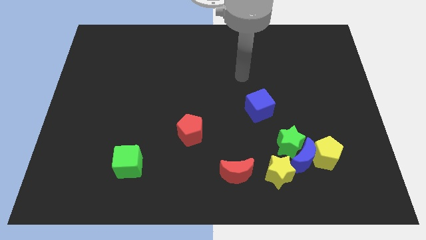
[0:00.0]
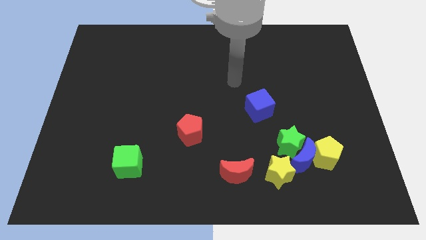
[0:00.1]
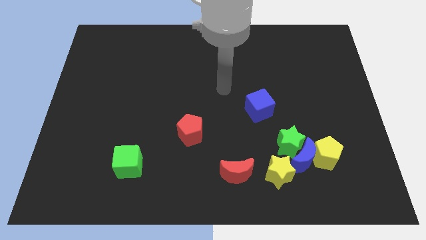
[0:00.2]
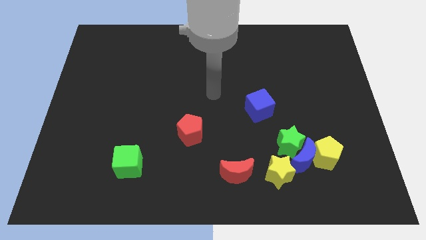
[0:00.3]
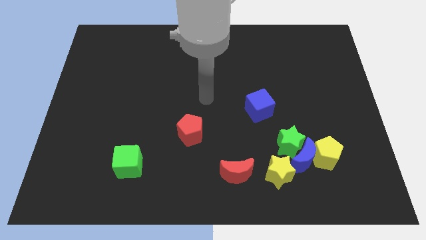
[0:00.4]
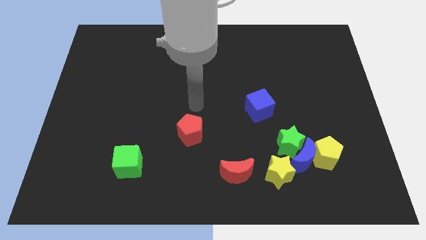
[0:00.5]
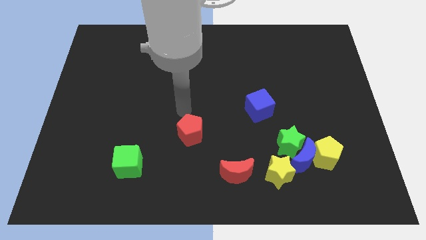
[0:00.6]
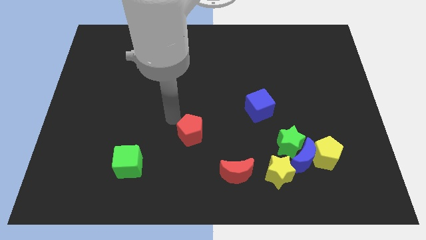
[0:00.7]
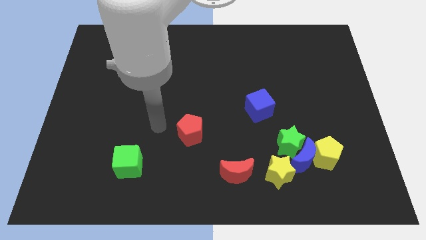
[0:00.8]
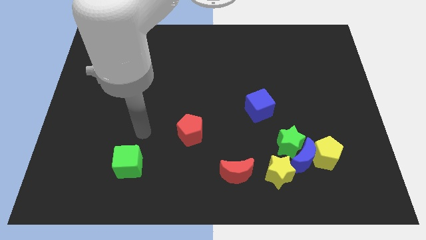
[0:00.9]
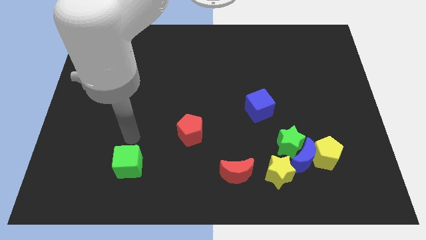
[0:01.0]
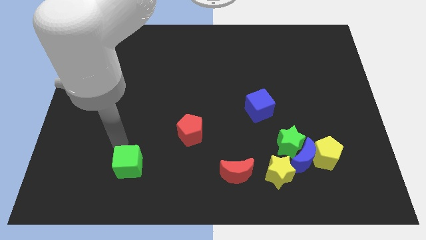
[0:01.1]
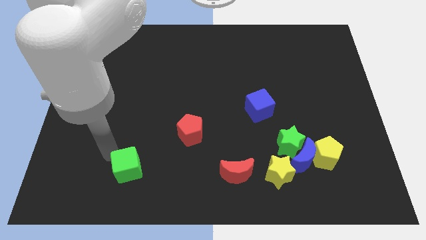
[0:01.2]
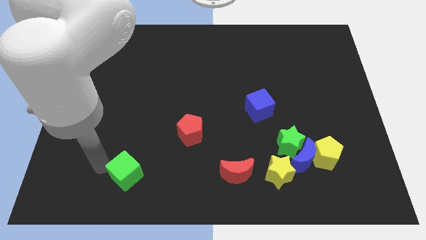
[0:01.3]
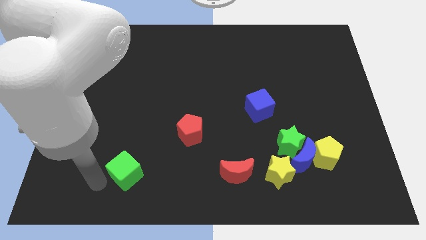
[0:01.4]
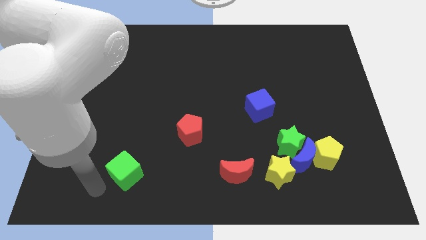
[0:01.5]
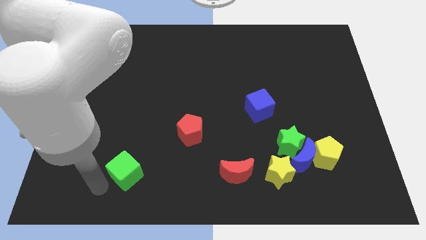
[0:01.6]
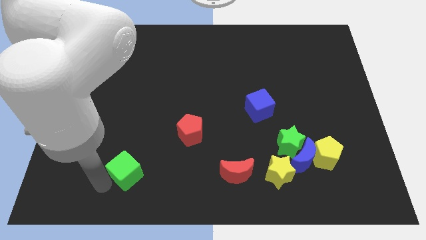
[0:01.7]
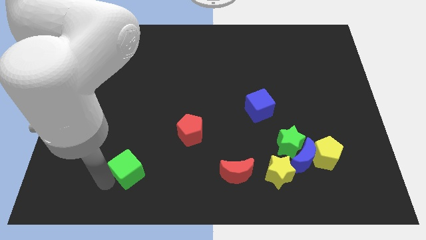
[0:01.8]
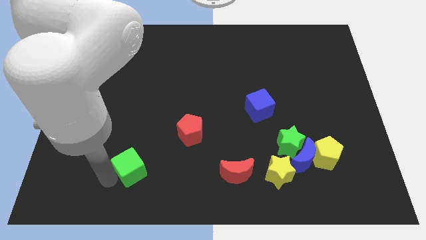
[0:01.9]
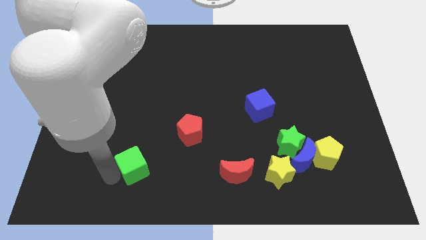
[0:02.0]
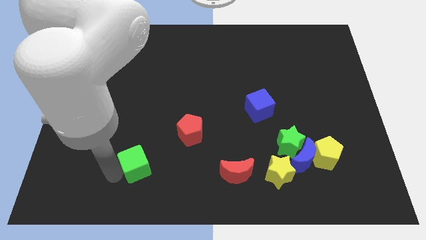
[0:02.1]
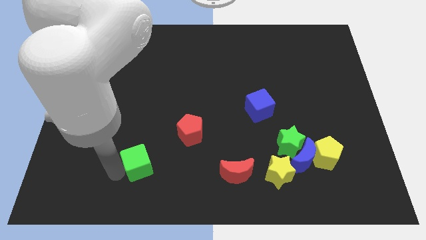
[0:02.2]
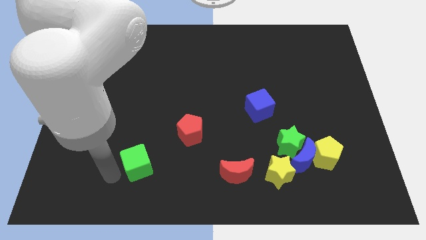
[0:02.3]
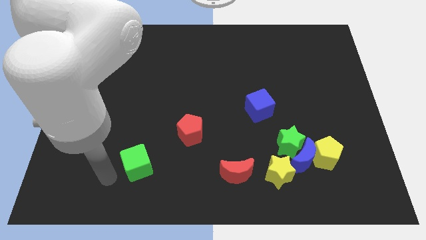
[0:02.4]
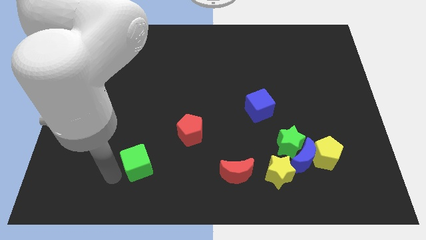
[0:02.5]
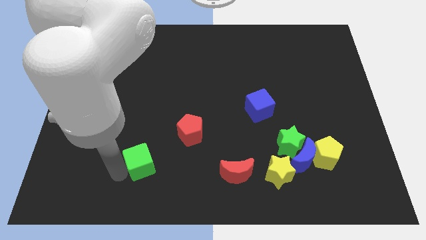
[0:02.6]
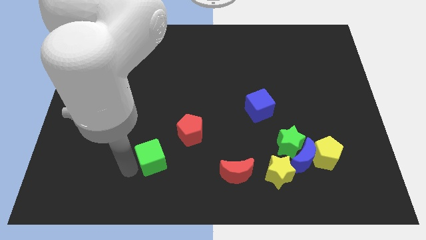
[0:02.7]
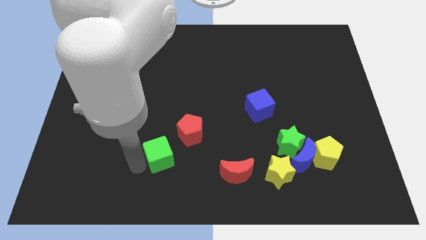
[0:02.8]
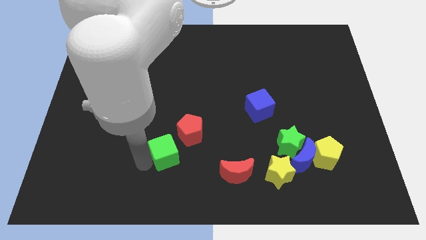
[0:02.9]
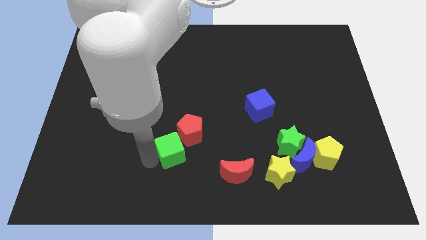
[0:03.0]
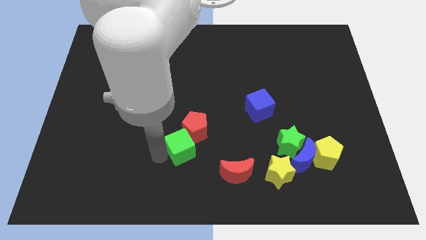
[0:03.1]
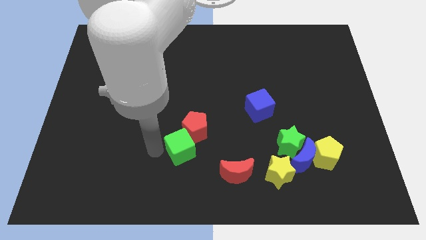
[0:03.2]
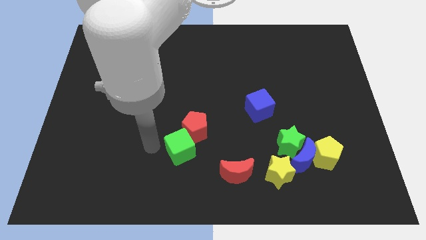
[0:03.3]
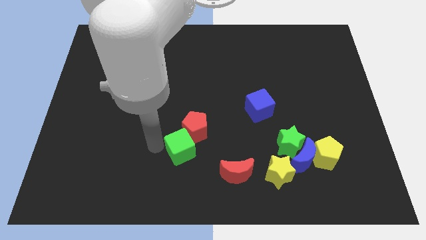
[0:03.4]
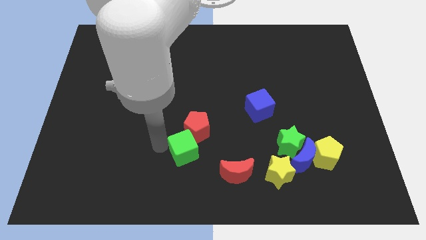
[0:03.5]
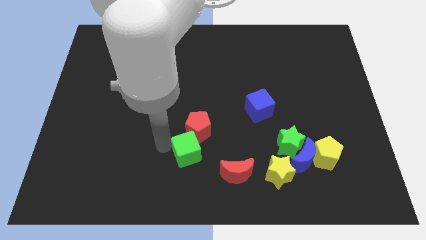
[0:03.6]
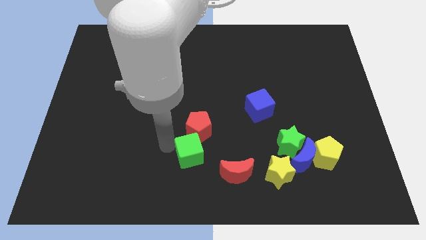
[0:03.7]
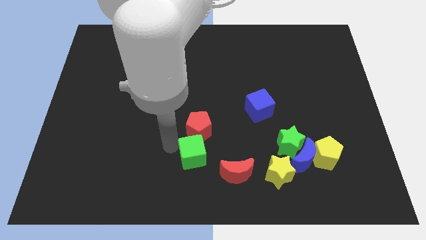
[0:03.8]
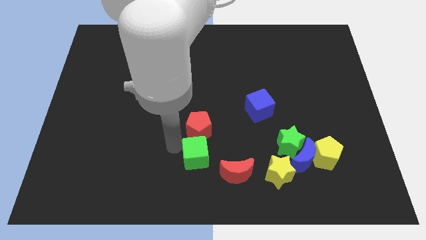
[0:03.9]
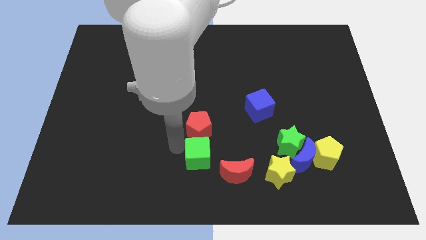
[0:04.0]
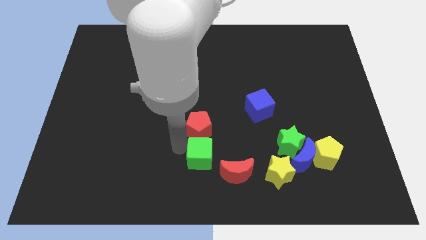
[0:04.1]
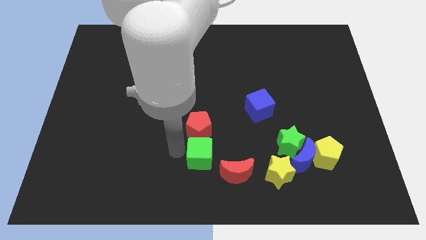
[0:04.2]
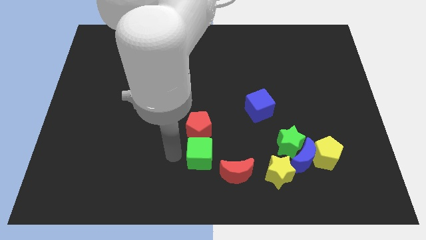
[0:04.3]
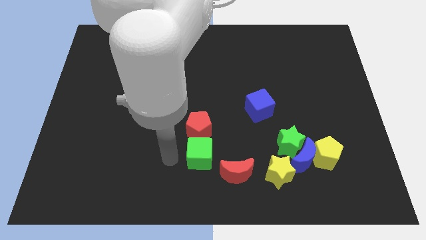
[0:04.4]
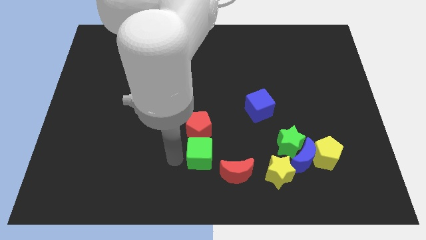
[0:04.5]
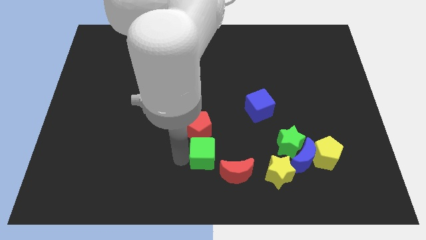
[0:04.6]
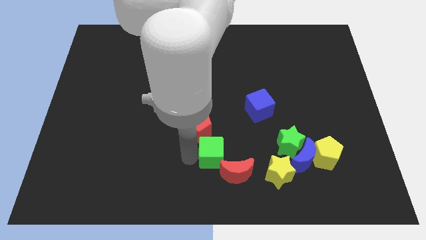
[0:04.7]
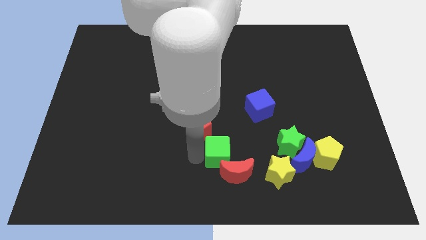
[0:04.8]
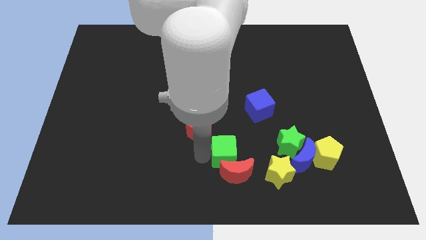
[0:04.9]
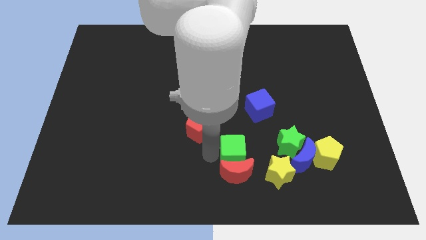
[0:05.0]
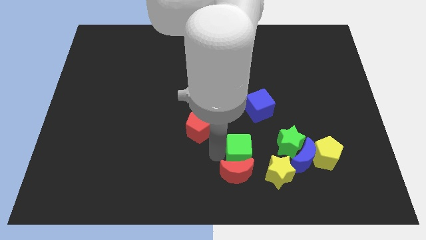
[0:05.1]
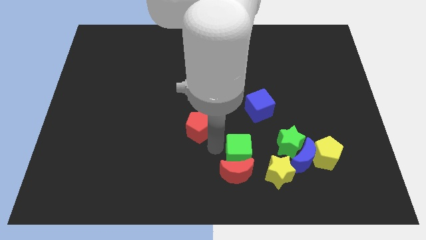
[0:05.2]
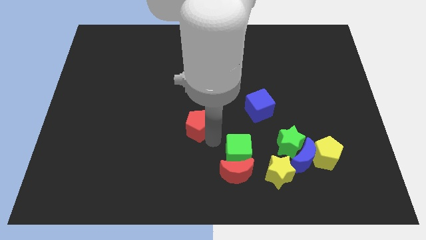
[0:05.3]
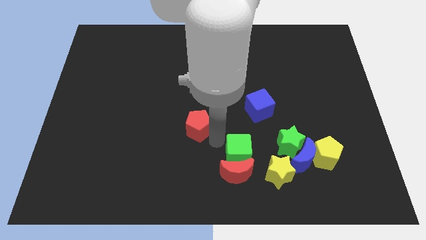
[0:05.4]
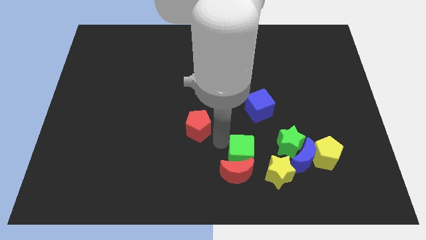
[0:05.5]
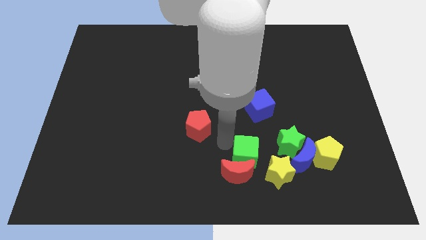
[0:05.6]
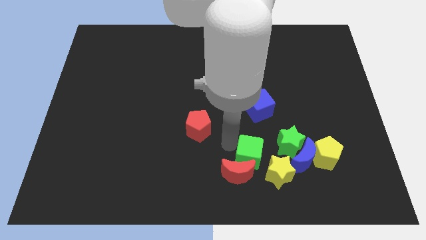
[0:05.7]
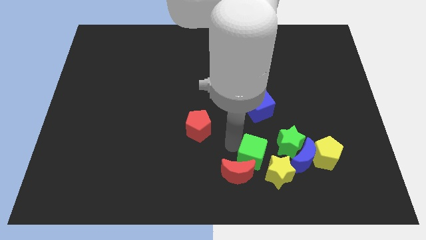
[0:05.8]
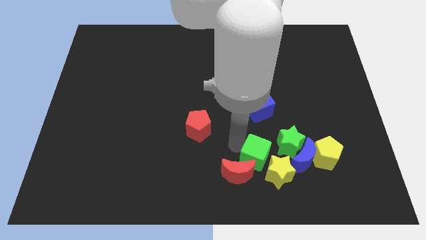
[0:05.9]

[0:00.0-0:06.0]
slide the green cube to the yellow star

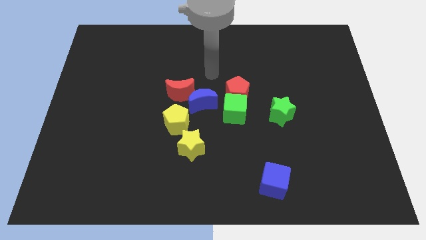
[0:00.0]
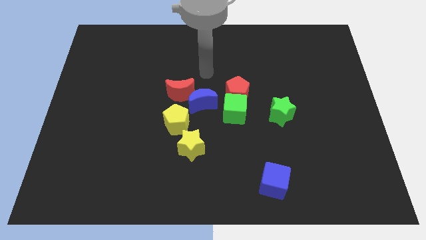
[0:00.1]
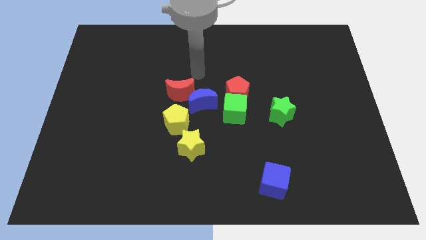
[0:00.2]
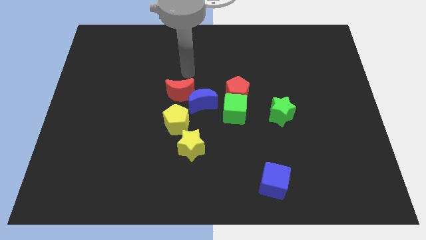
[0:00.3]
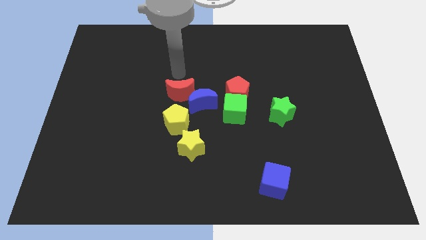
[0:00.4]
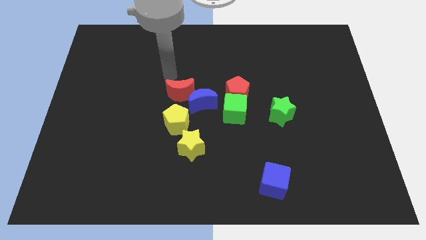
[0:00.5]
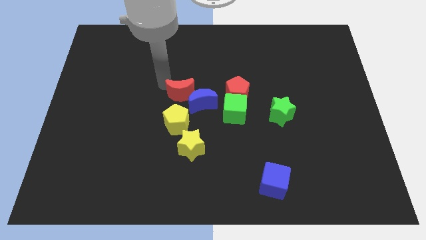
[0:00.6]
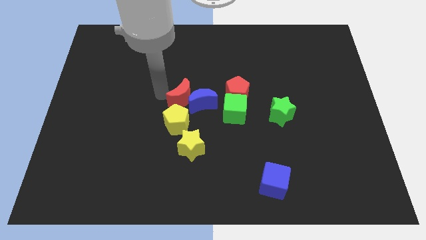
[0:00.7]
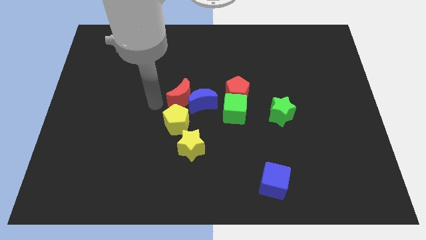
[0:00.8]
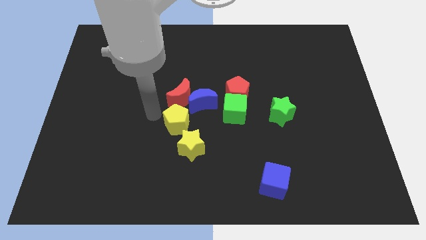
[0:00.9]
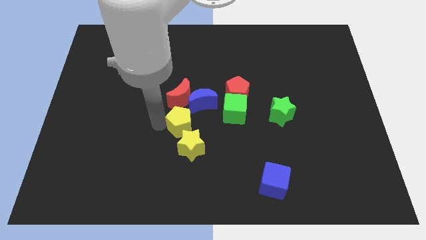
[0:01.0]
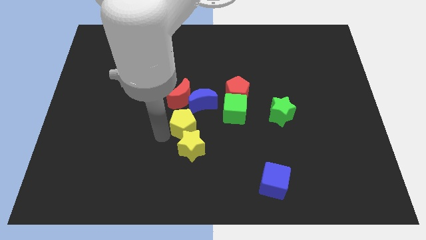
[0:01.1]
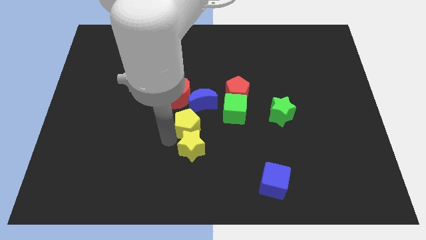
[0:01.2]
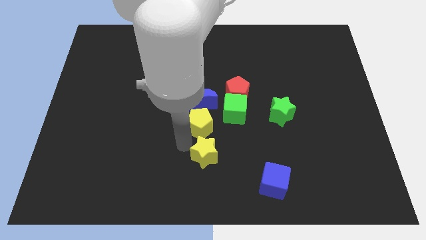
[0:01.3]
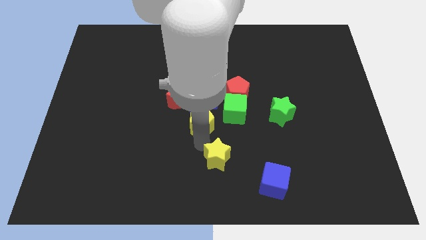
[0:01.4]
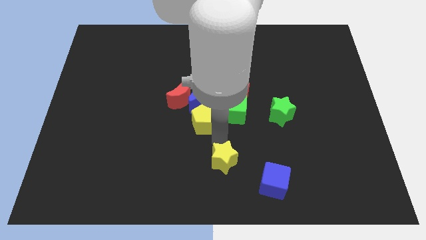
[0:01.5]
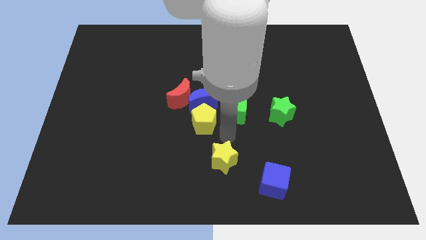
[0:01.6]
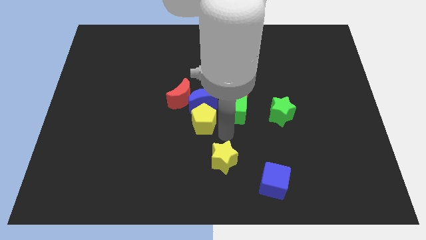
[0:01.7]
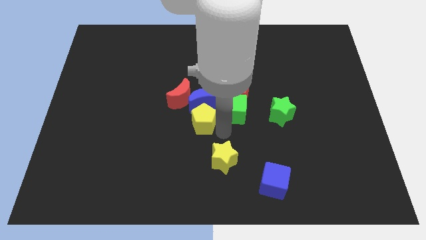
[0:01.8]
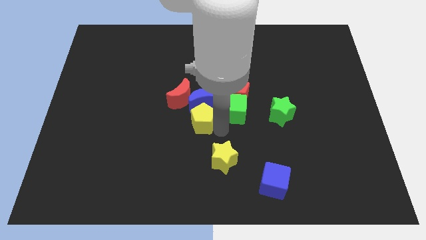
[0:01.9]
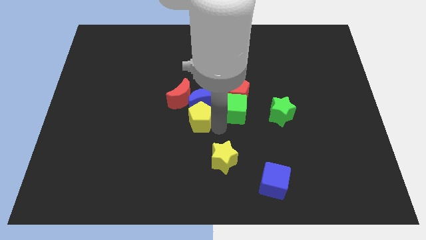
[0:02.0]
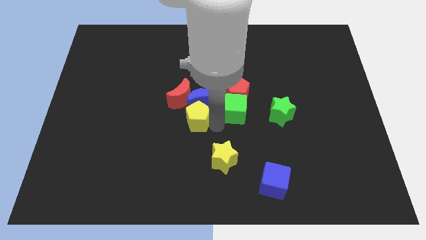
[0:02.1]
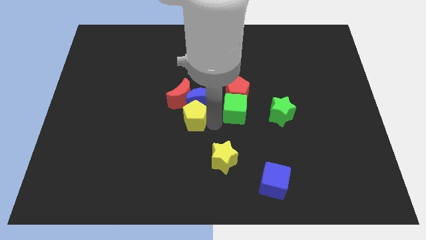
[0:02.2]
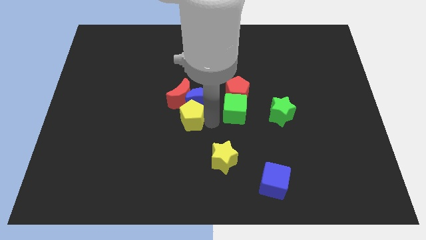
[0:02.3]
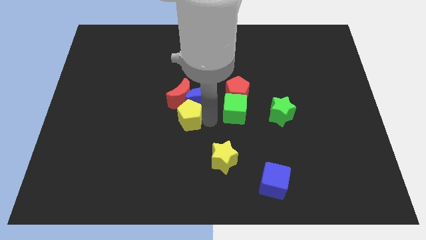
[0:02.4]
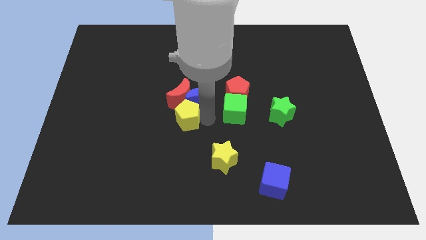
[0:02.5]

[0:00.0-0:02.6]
slide the yellow pentagon to the red moon
